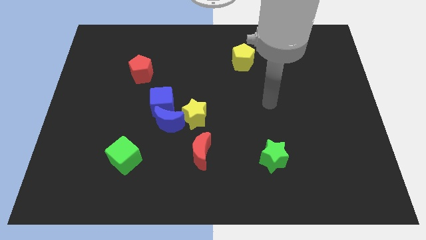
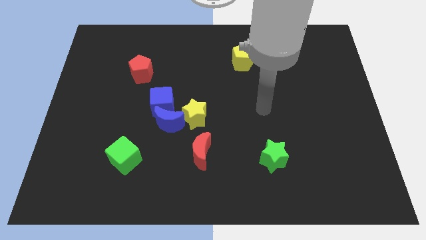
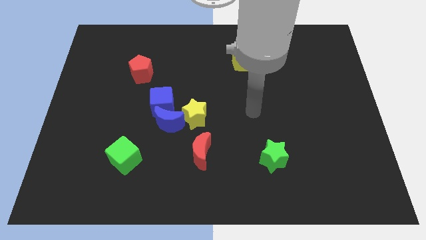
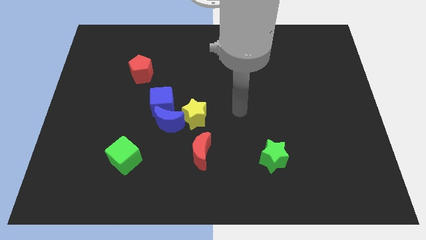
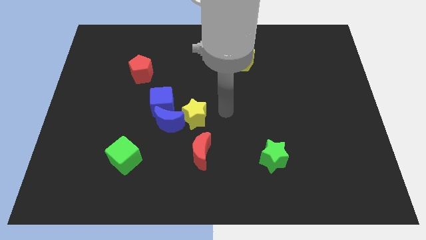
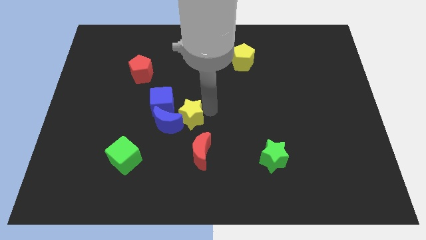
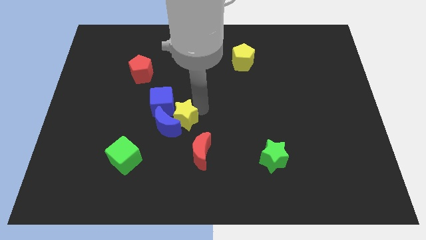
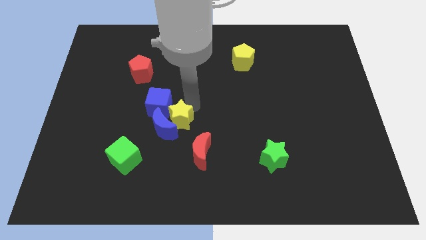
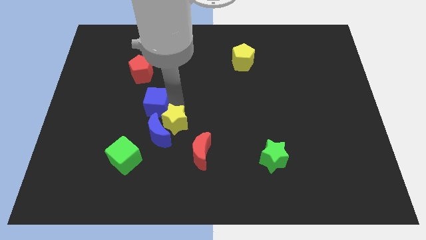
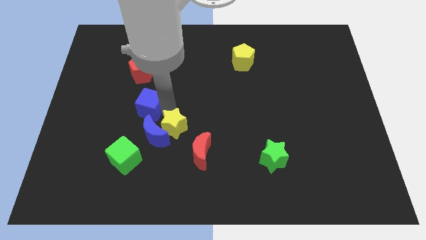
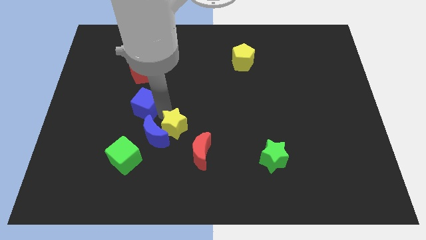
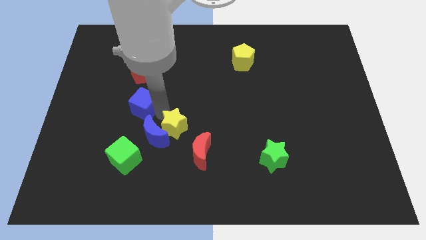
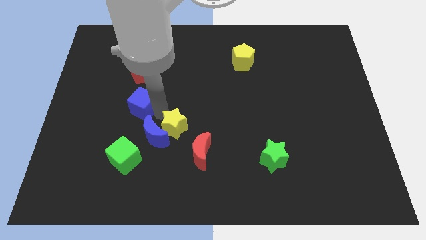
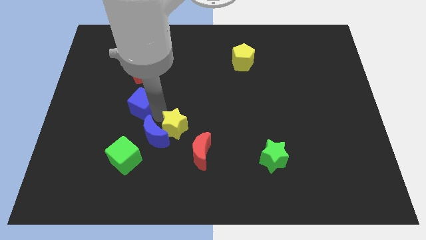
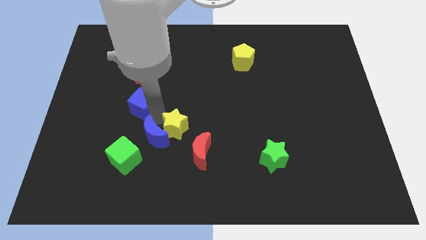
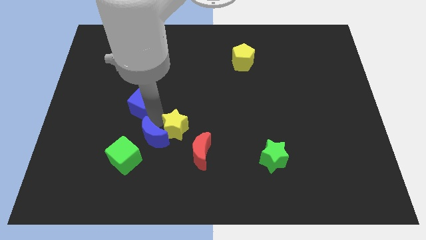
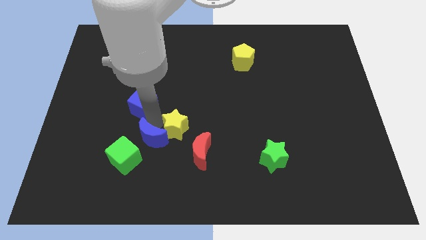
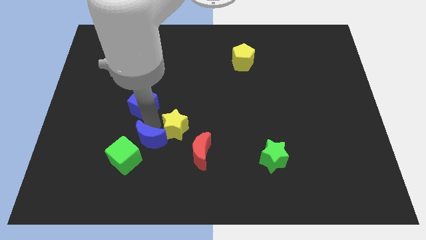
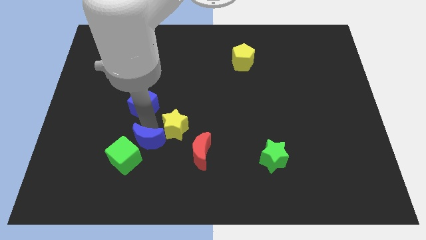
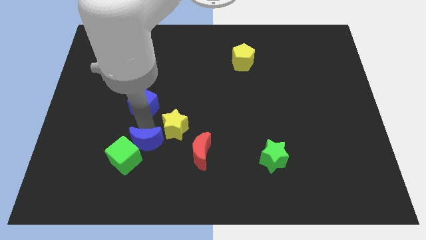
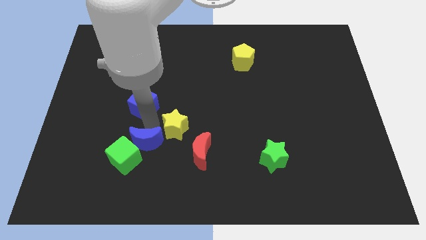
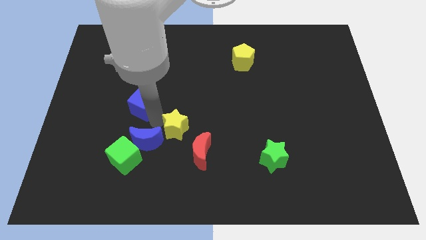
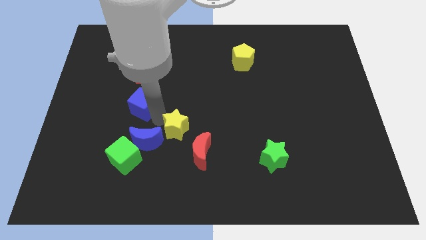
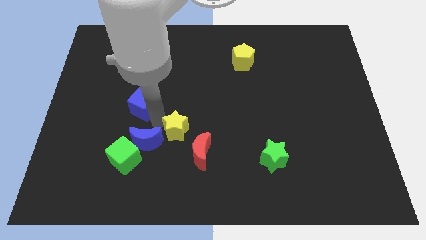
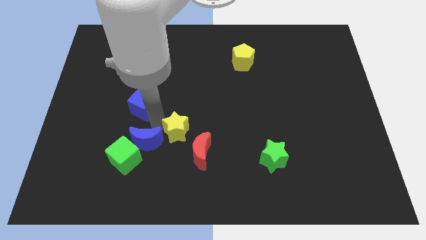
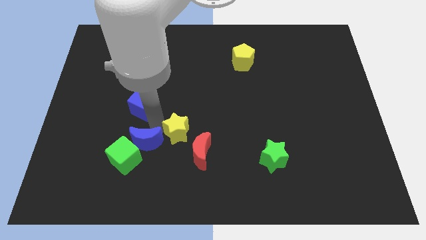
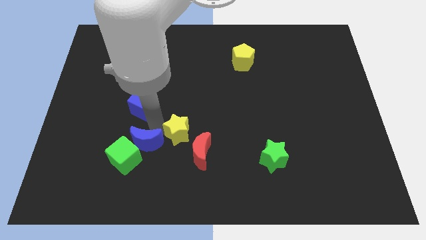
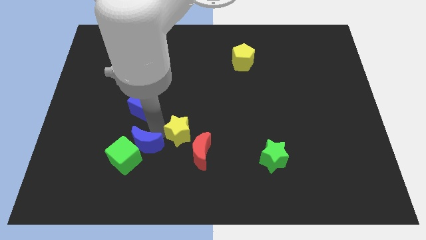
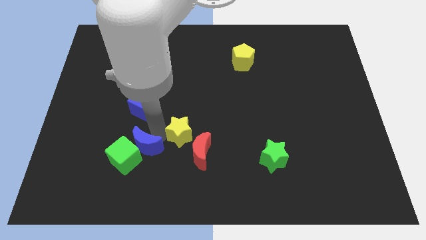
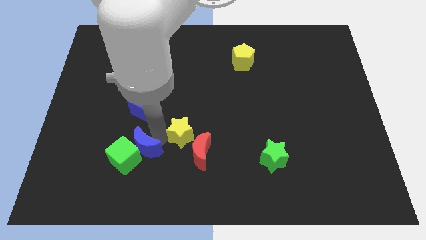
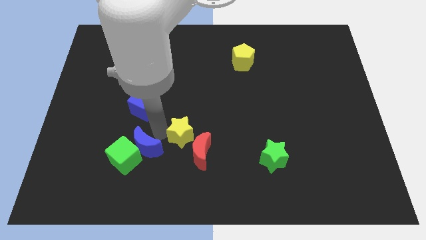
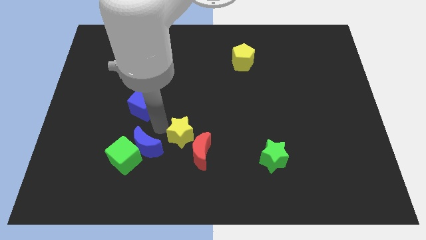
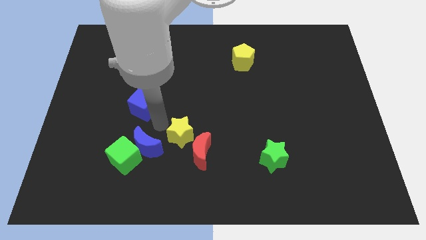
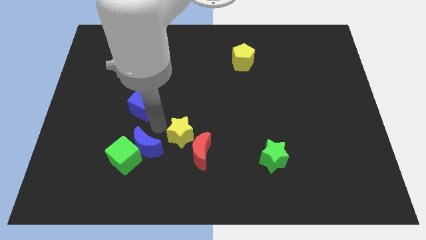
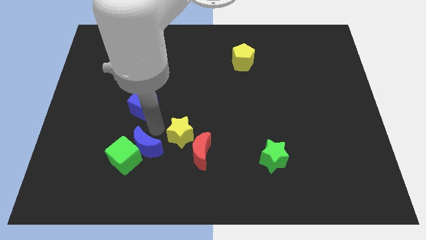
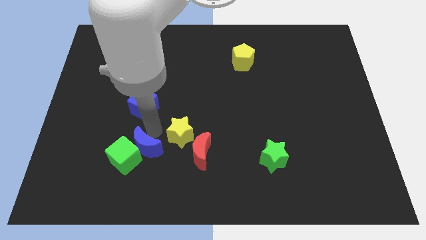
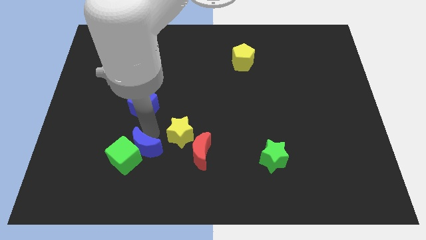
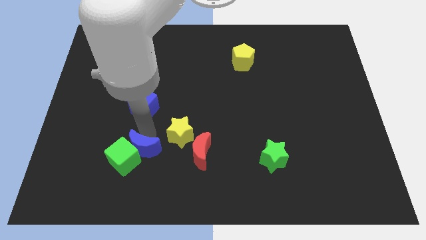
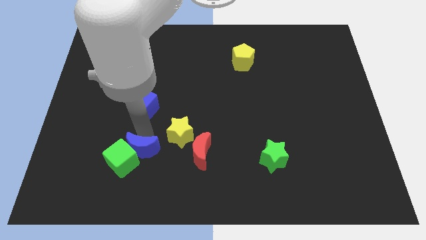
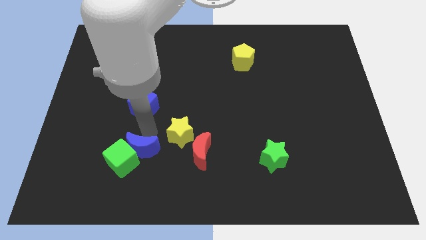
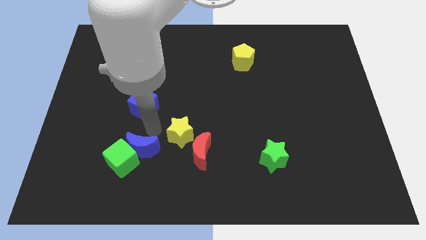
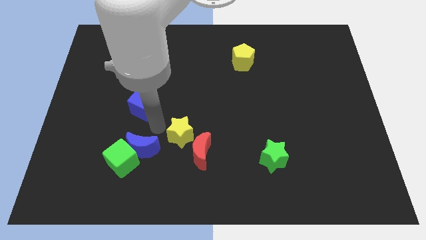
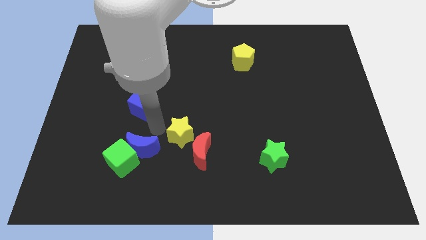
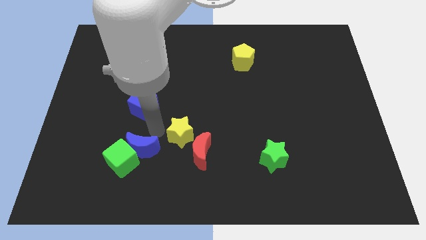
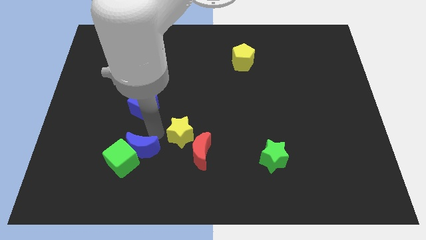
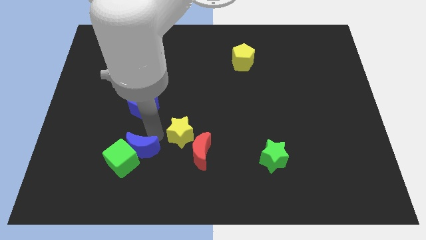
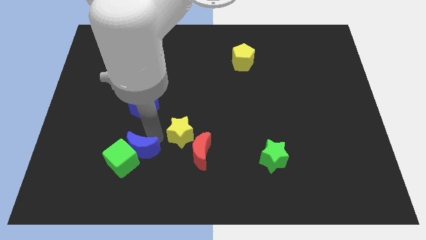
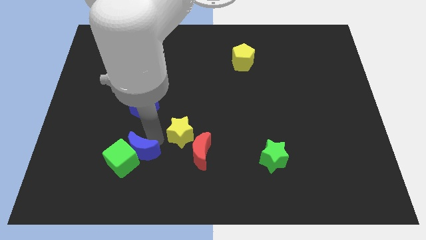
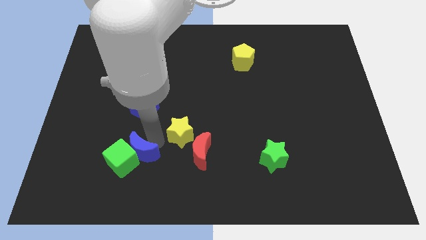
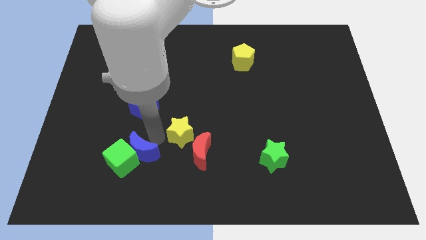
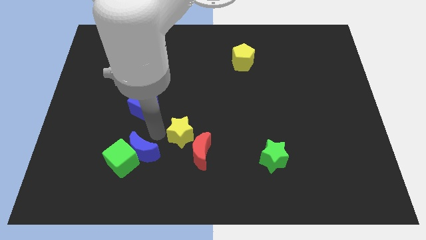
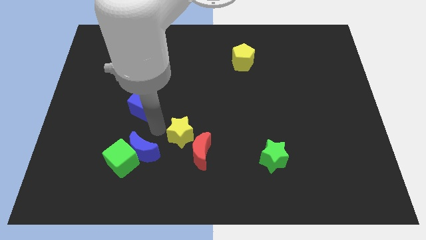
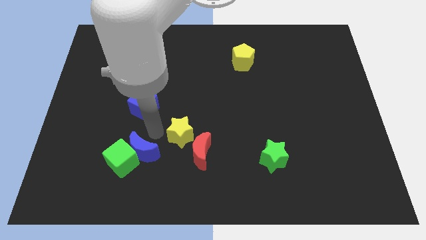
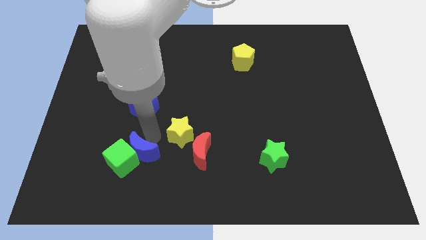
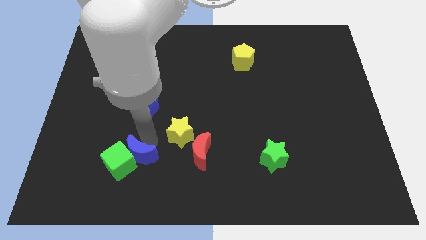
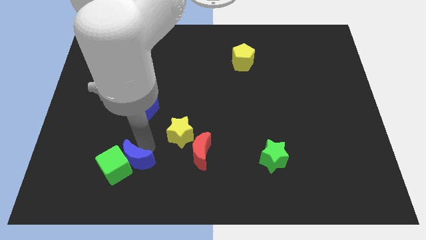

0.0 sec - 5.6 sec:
separate the blue moon from the blue cube and yellow star

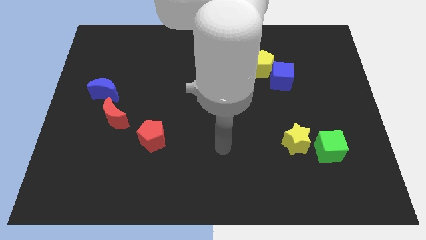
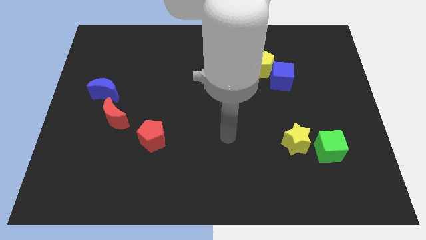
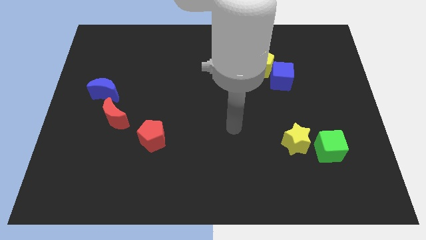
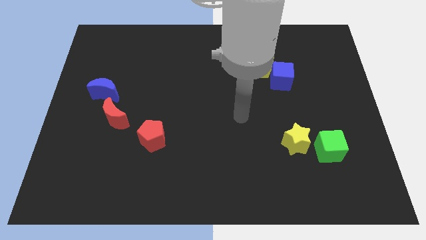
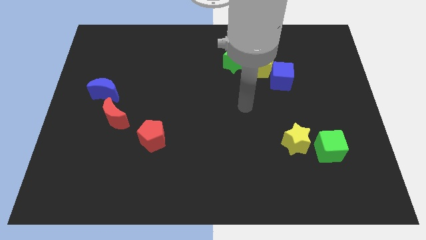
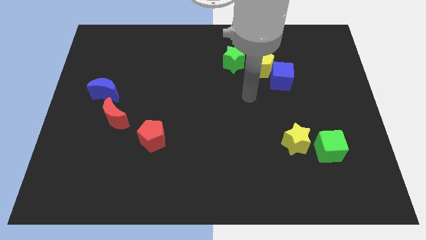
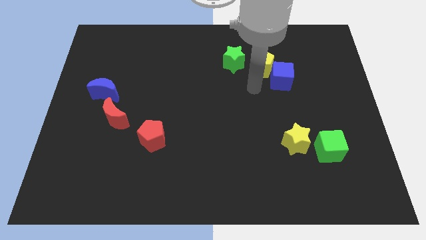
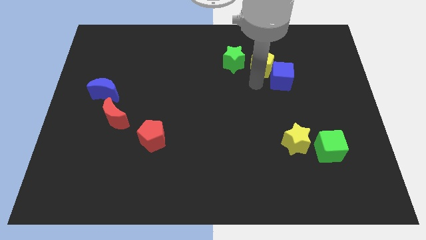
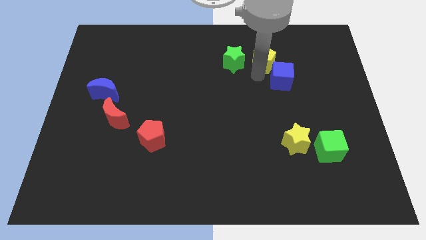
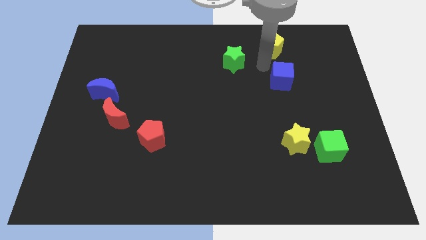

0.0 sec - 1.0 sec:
separate the blue cube from the yellow pentagon

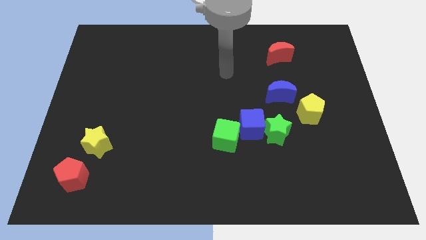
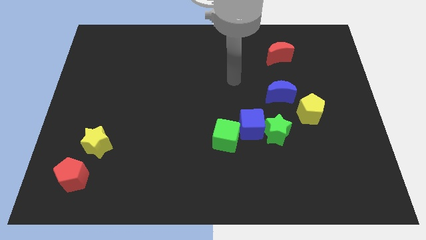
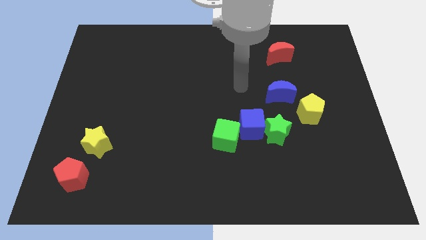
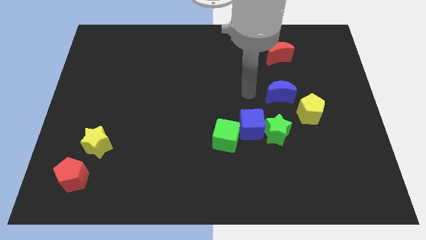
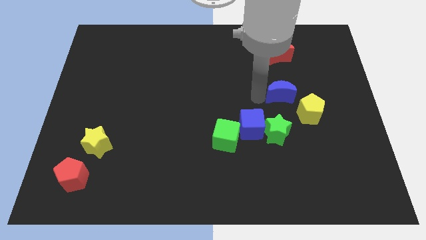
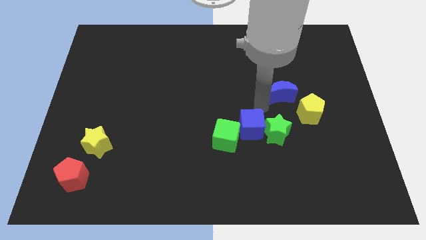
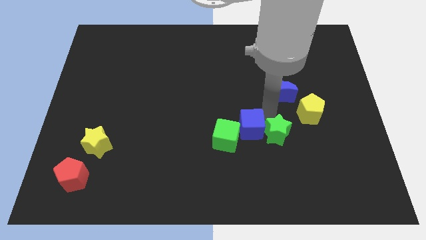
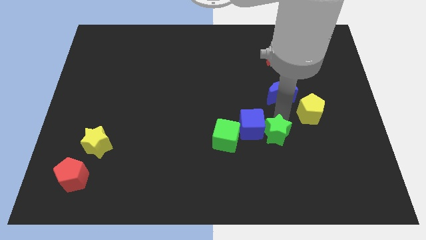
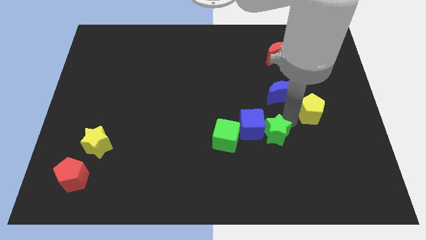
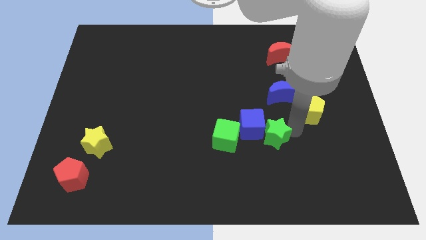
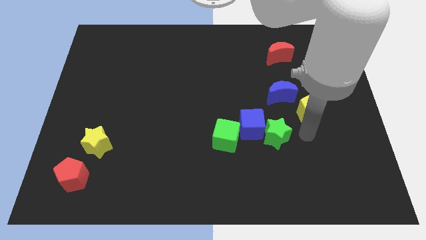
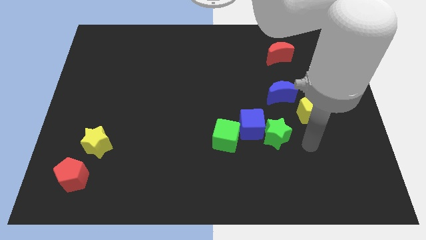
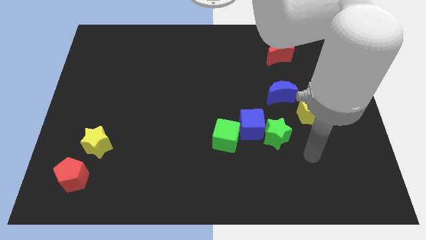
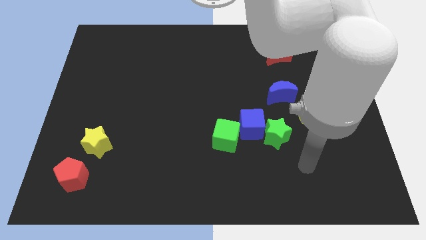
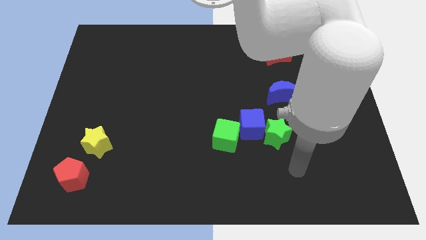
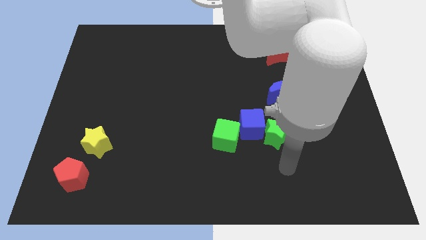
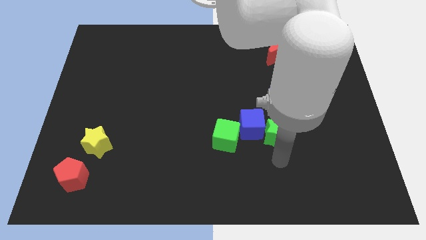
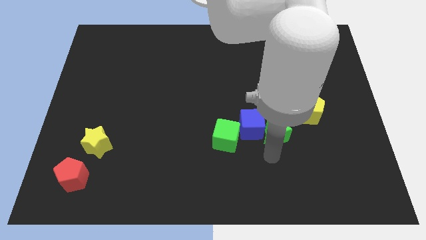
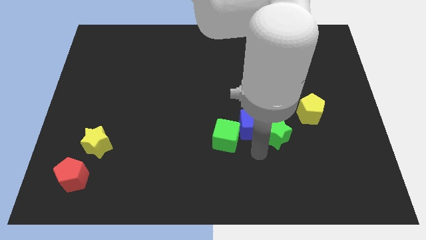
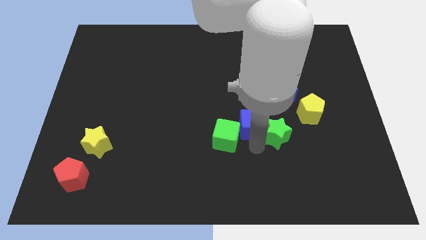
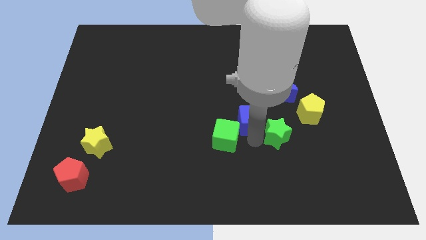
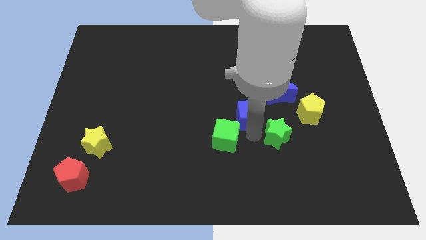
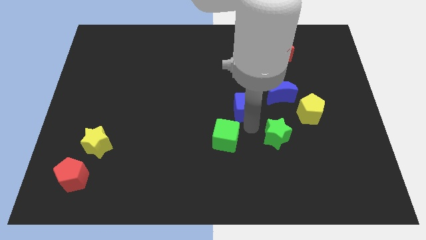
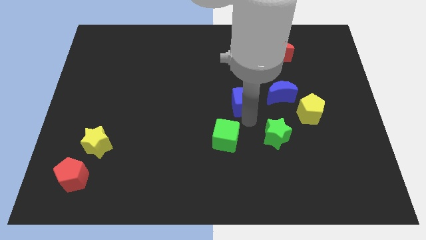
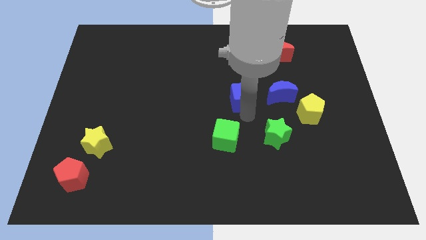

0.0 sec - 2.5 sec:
separate the blue cube from the green star and green cube

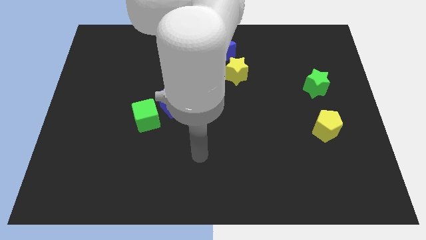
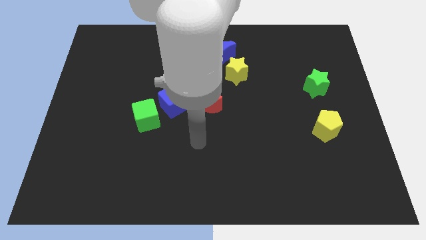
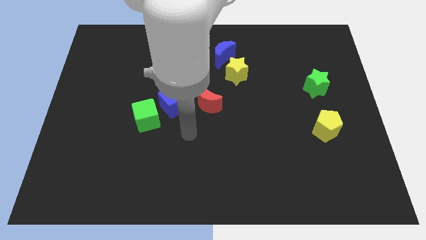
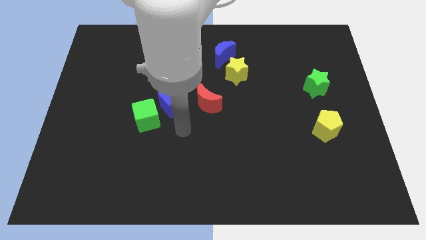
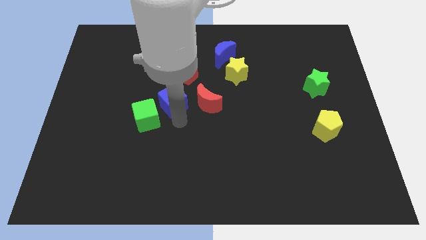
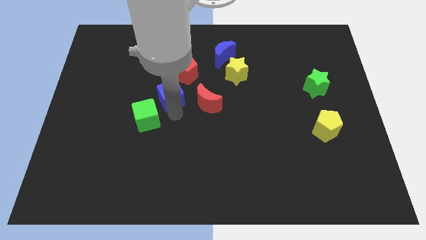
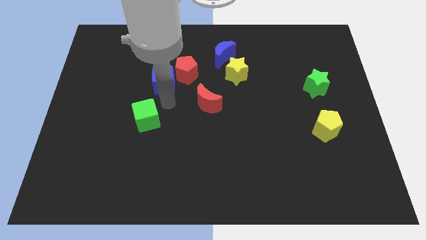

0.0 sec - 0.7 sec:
pull the green cube apart from the blue cube
